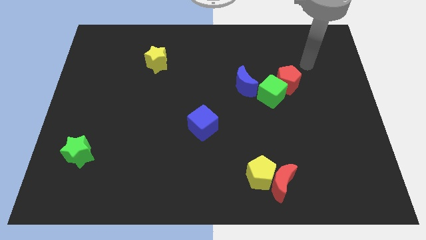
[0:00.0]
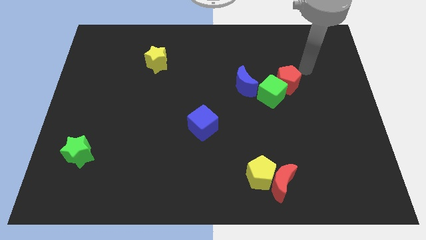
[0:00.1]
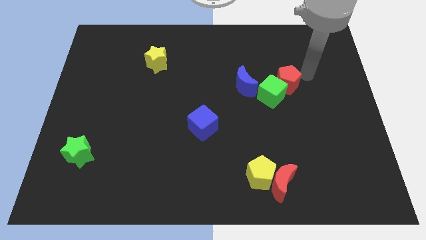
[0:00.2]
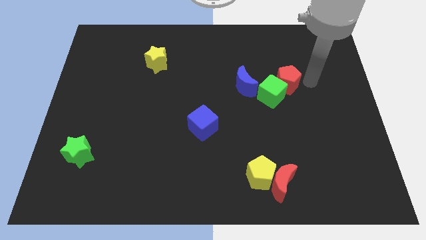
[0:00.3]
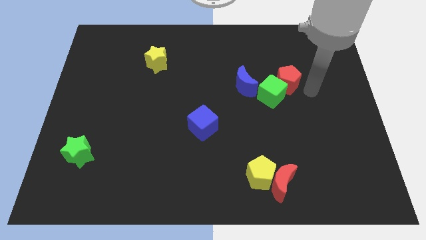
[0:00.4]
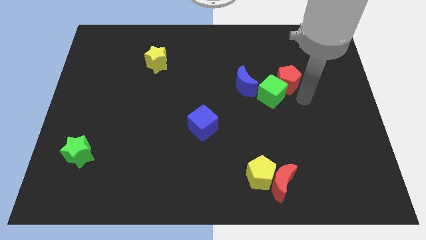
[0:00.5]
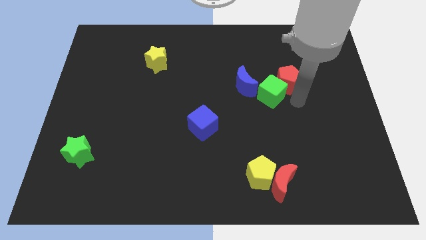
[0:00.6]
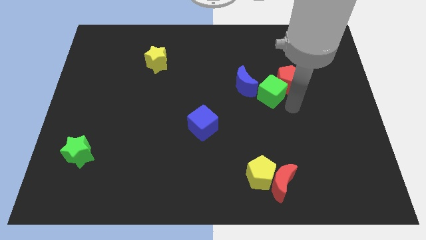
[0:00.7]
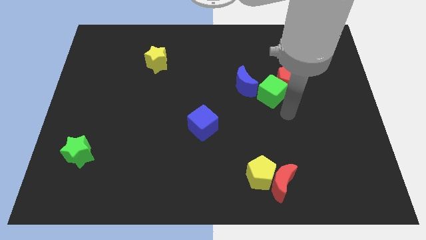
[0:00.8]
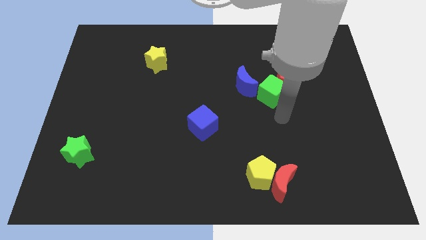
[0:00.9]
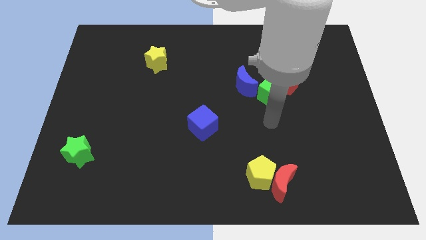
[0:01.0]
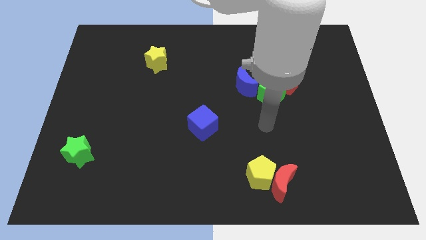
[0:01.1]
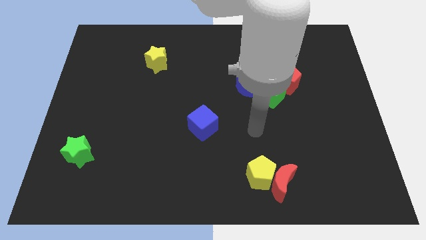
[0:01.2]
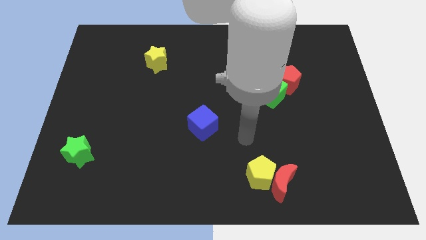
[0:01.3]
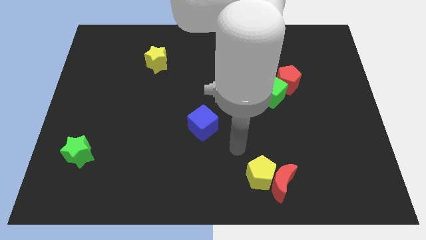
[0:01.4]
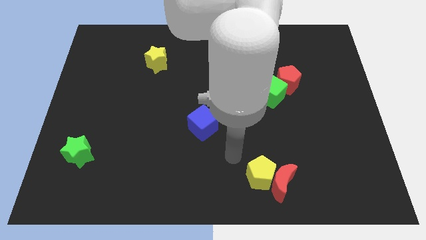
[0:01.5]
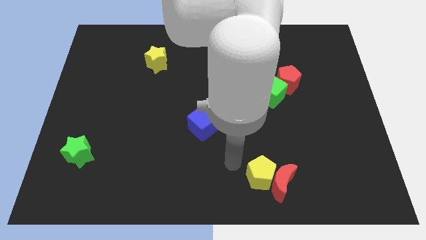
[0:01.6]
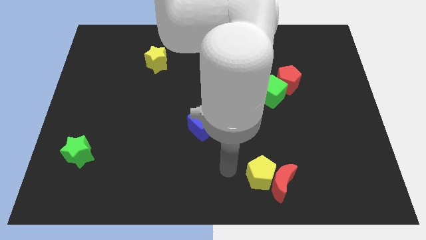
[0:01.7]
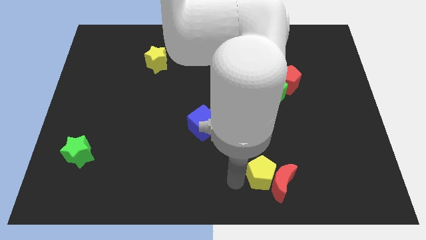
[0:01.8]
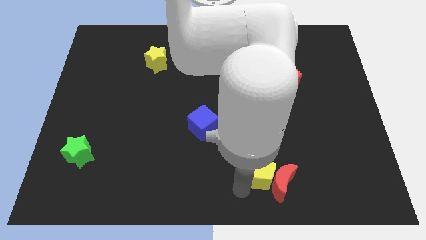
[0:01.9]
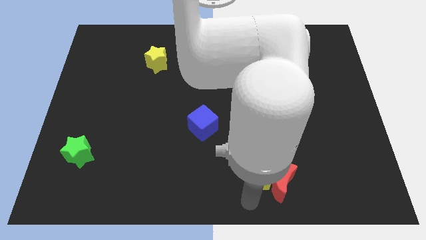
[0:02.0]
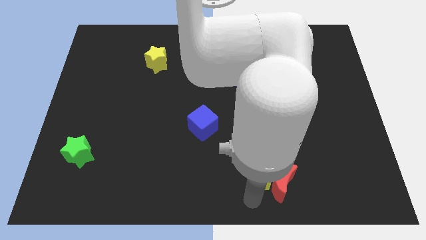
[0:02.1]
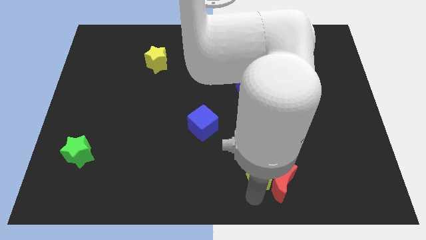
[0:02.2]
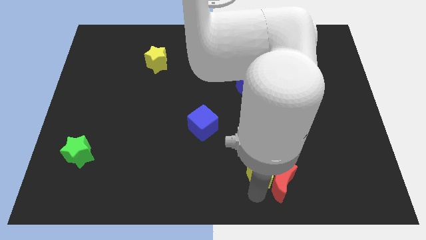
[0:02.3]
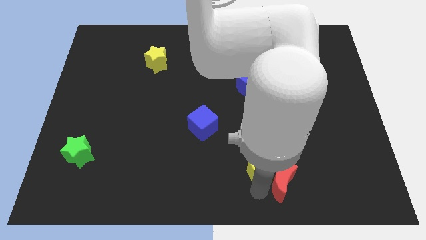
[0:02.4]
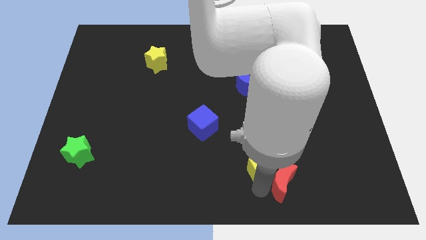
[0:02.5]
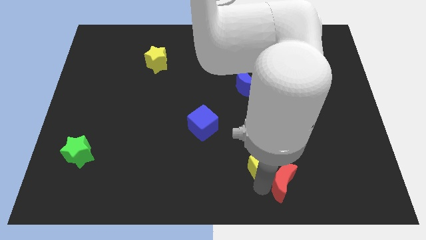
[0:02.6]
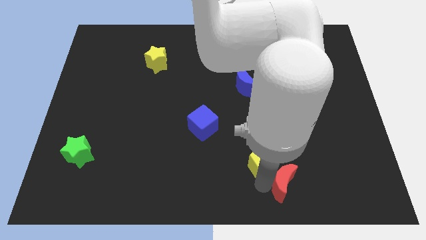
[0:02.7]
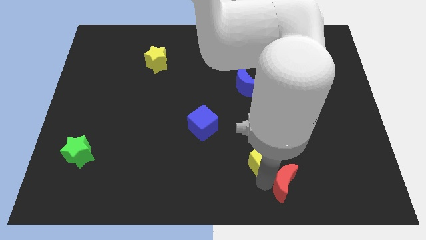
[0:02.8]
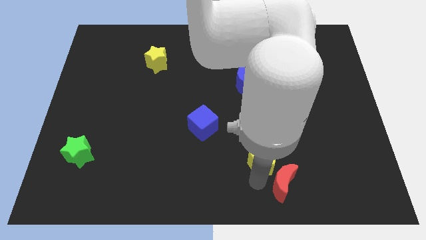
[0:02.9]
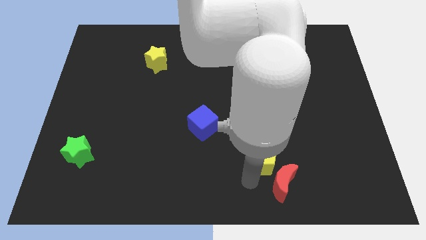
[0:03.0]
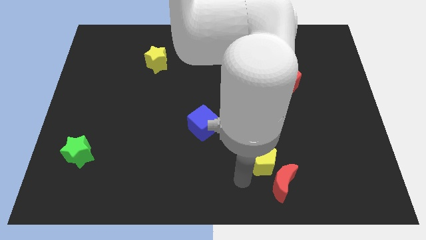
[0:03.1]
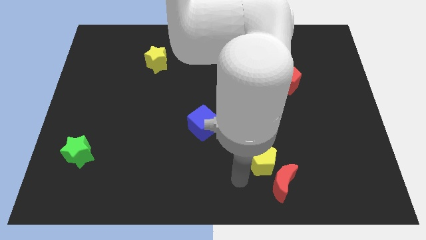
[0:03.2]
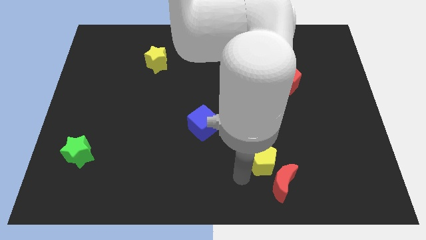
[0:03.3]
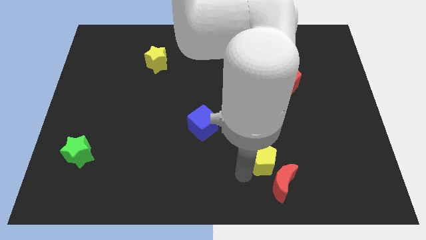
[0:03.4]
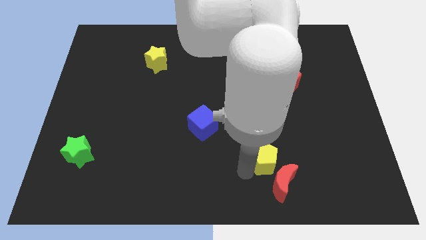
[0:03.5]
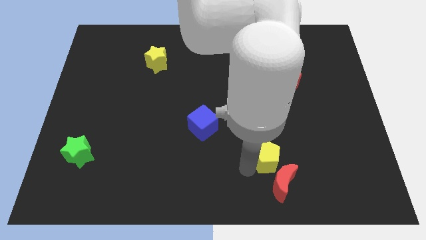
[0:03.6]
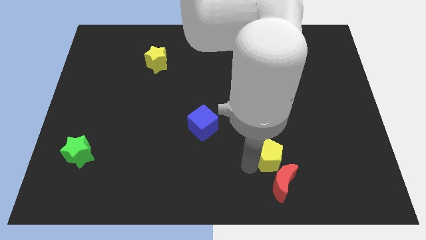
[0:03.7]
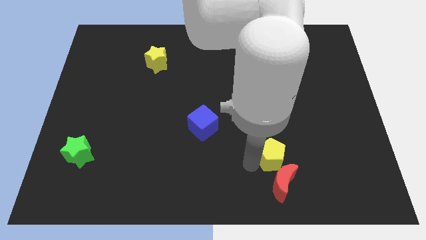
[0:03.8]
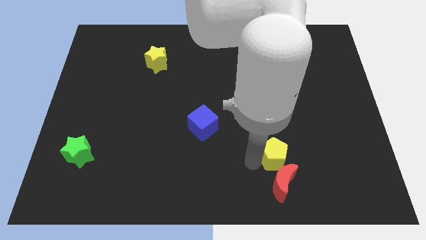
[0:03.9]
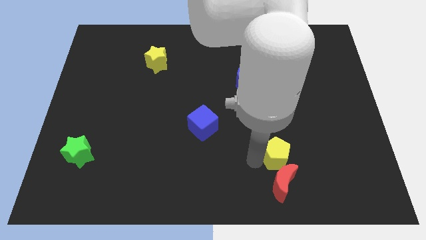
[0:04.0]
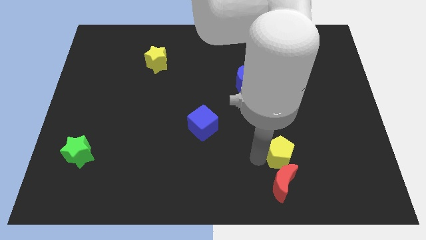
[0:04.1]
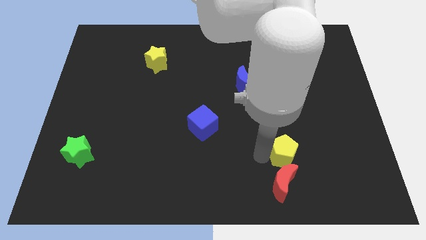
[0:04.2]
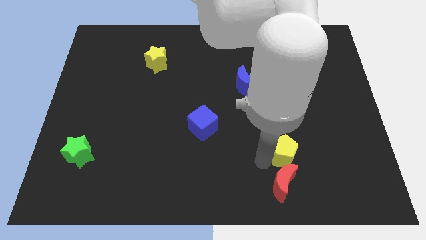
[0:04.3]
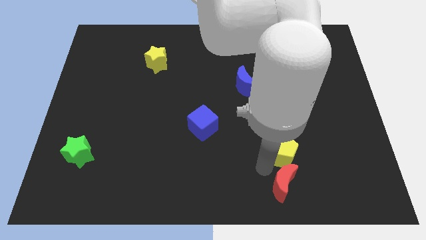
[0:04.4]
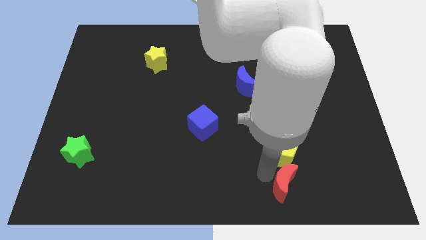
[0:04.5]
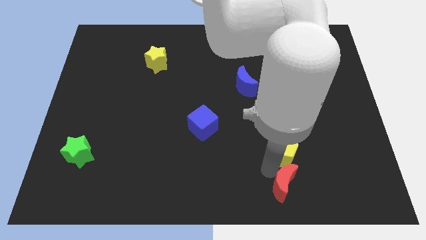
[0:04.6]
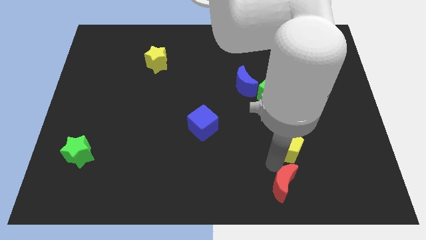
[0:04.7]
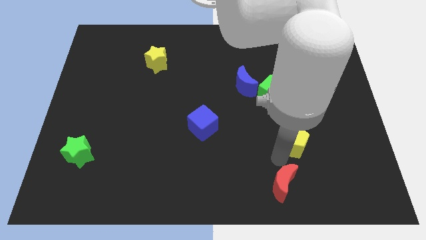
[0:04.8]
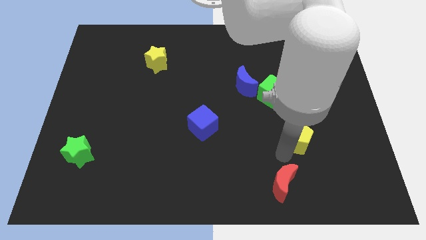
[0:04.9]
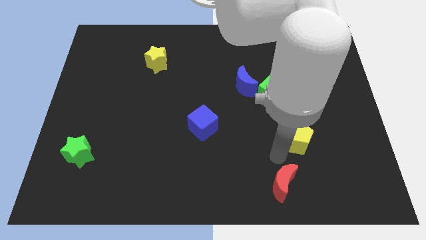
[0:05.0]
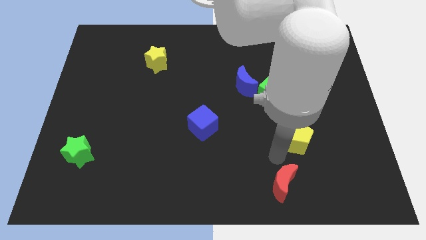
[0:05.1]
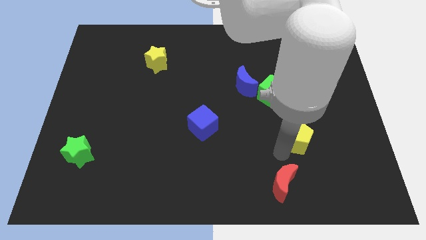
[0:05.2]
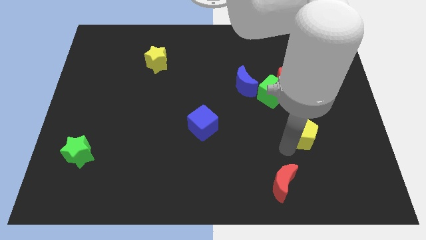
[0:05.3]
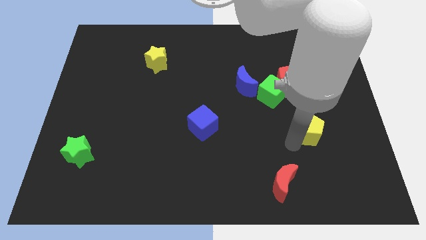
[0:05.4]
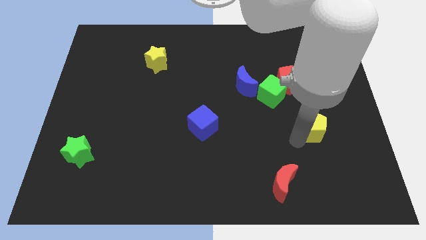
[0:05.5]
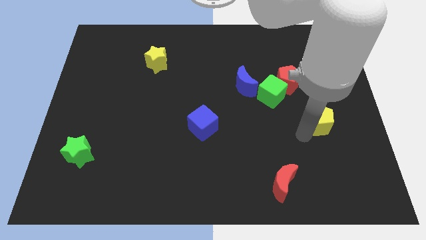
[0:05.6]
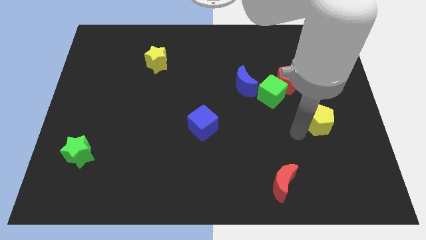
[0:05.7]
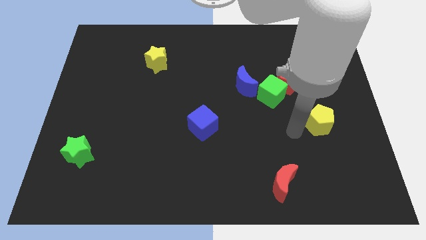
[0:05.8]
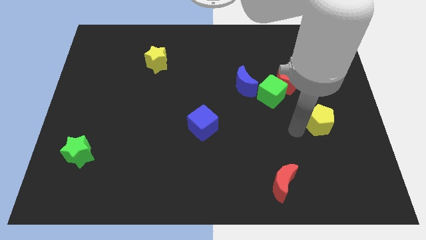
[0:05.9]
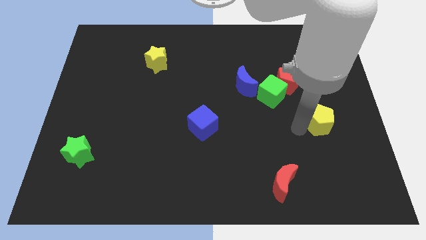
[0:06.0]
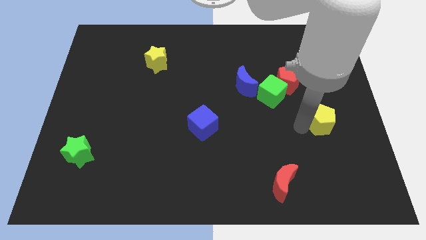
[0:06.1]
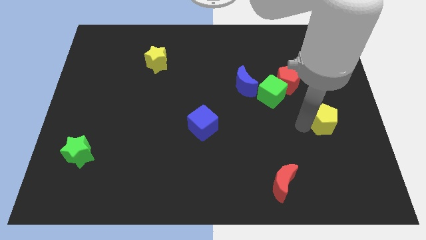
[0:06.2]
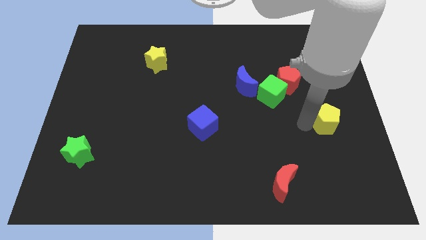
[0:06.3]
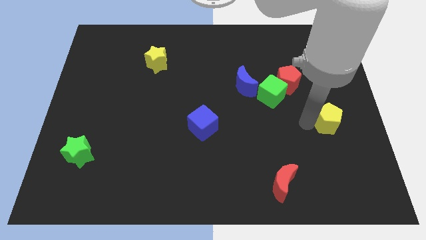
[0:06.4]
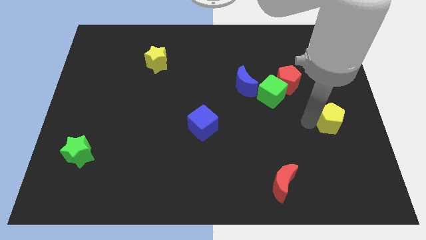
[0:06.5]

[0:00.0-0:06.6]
move the yellow pentagon to the right side of the board
